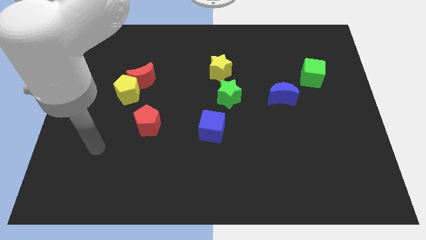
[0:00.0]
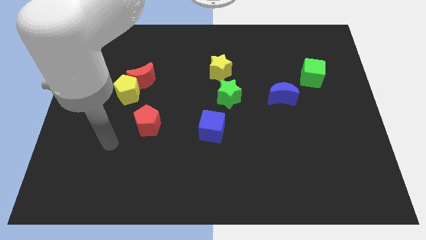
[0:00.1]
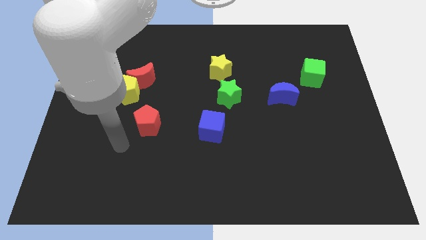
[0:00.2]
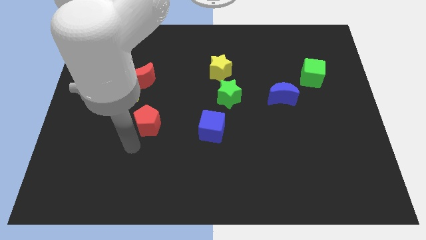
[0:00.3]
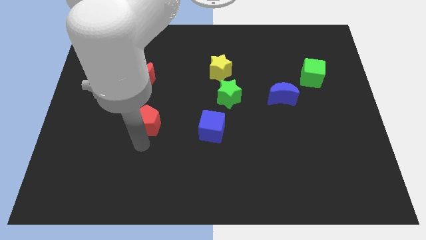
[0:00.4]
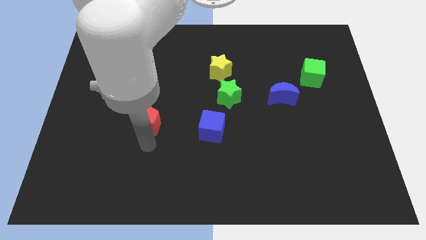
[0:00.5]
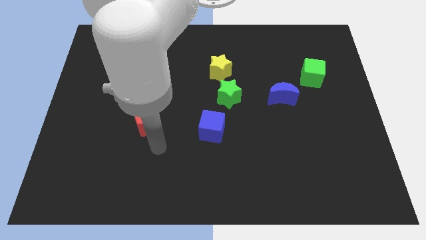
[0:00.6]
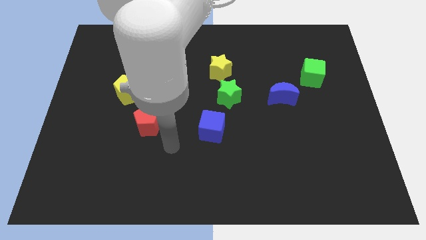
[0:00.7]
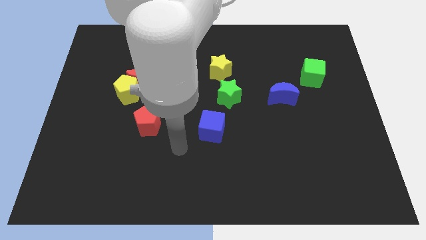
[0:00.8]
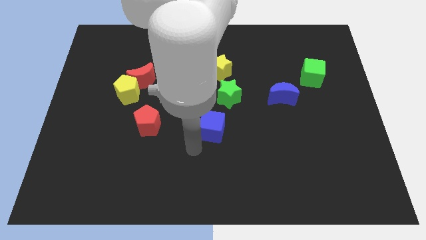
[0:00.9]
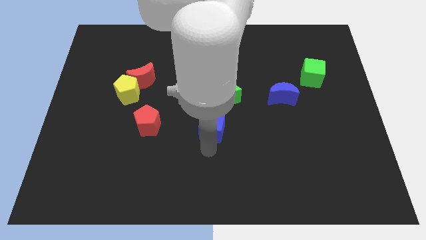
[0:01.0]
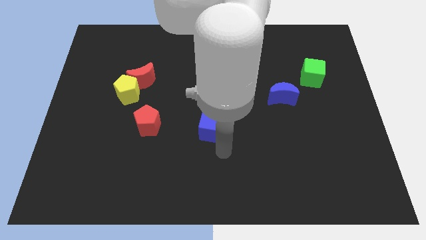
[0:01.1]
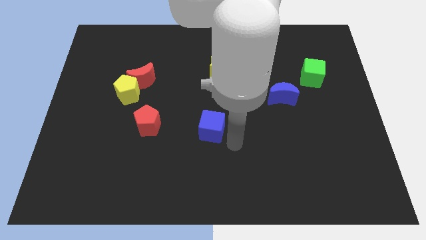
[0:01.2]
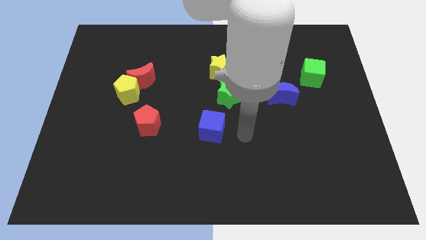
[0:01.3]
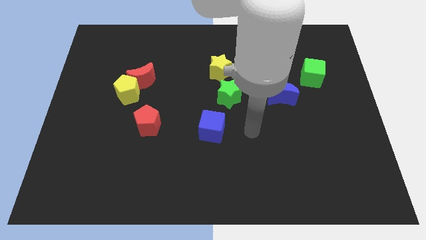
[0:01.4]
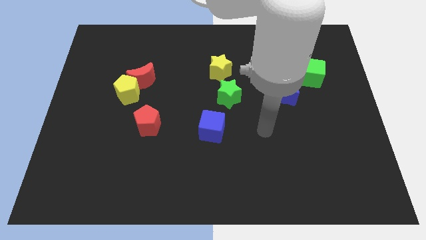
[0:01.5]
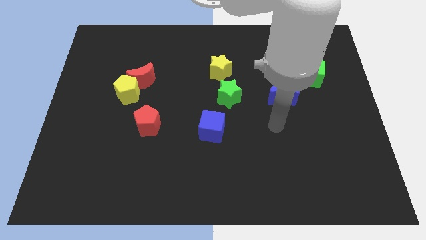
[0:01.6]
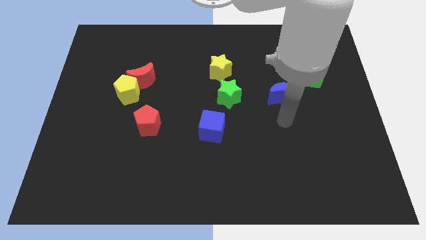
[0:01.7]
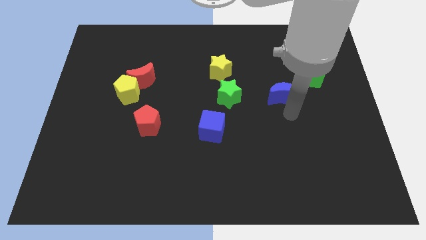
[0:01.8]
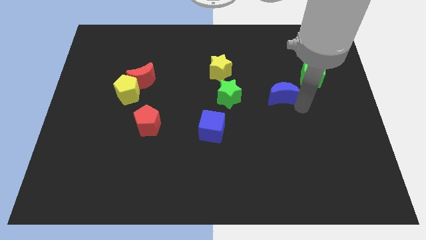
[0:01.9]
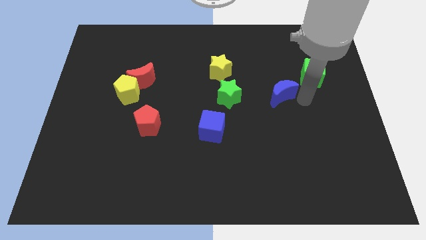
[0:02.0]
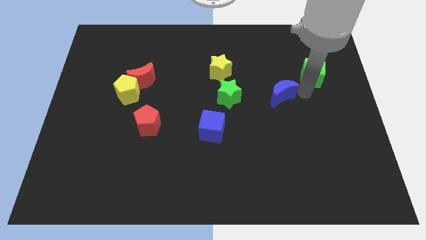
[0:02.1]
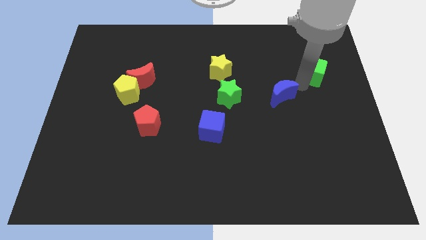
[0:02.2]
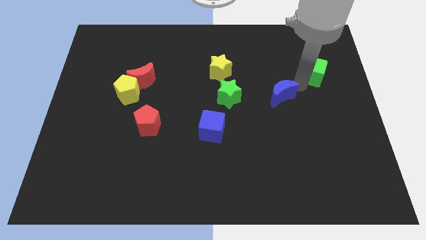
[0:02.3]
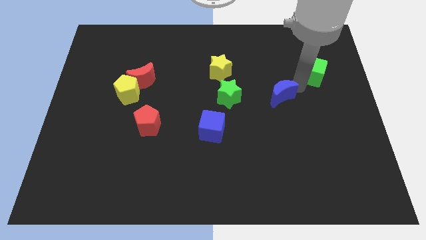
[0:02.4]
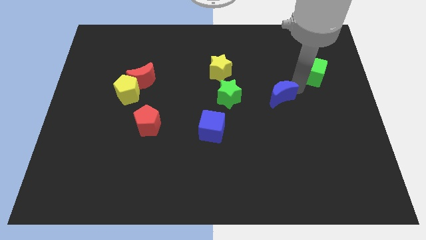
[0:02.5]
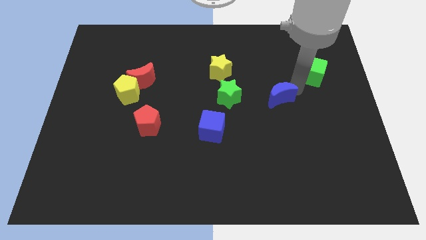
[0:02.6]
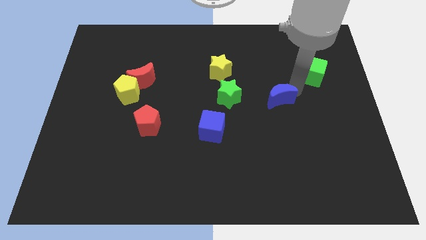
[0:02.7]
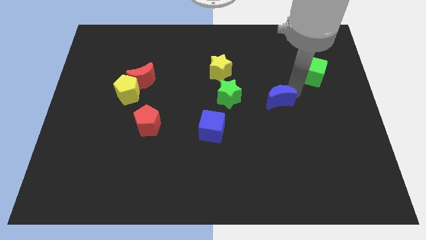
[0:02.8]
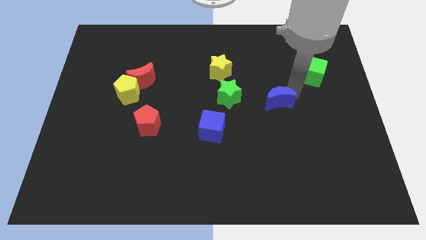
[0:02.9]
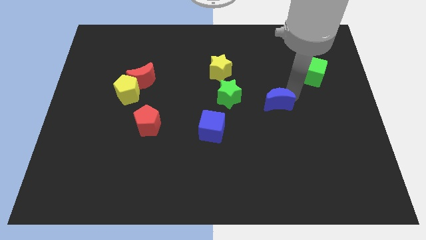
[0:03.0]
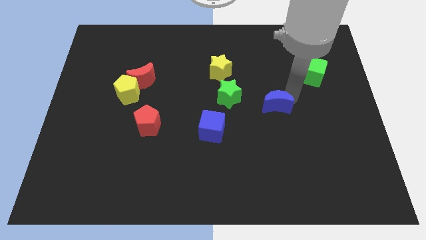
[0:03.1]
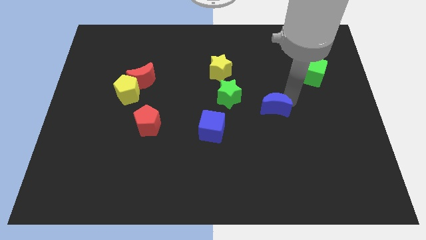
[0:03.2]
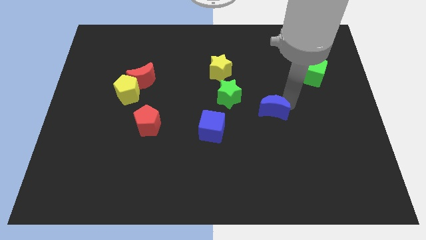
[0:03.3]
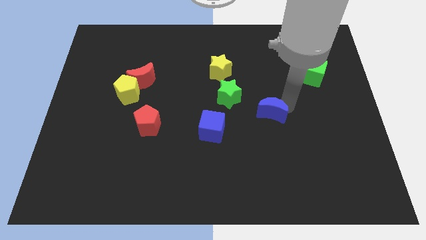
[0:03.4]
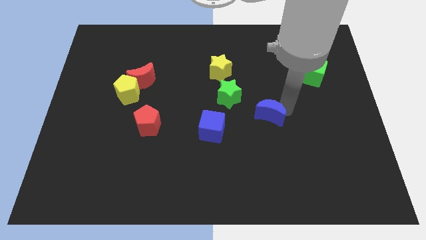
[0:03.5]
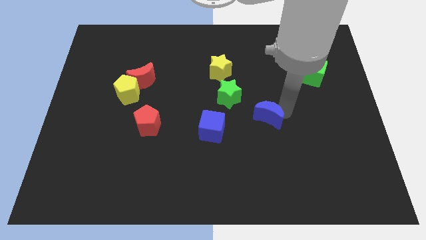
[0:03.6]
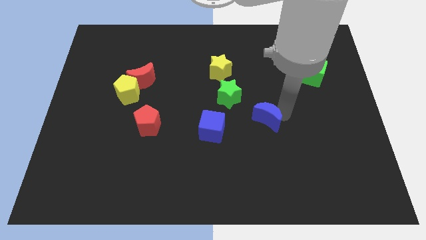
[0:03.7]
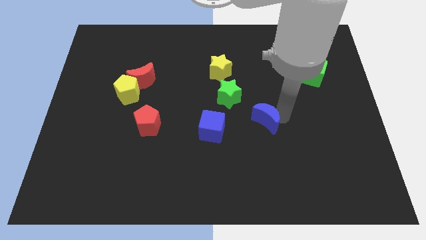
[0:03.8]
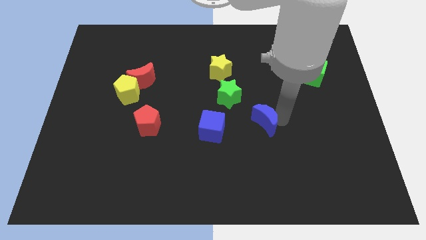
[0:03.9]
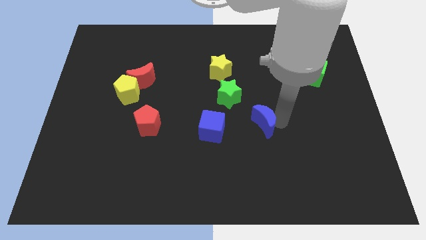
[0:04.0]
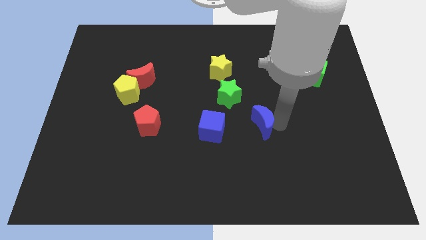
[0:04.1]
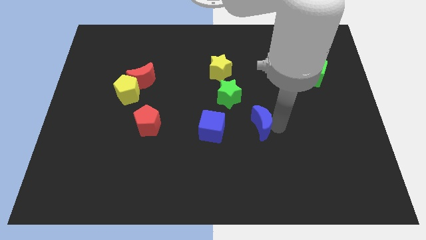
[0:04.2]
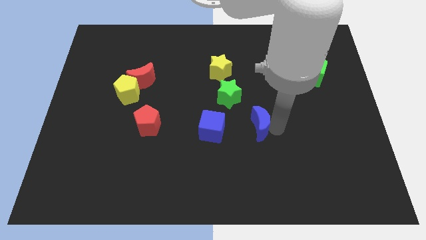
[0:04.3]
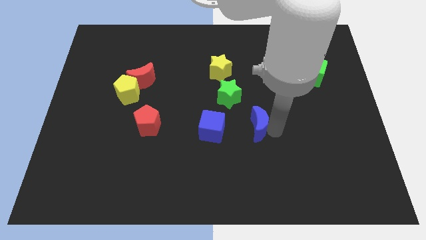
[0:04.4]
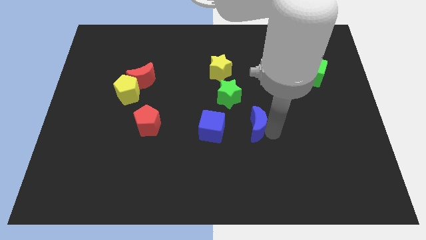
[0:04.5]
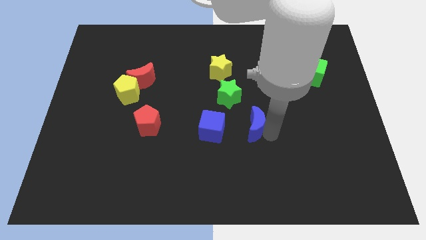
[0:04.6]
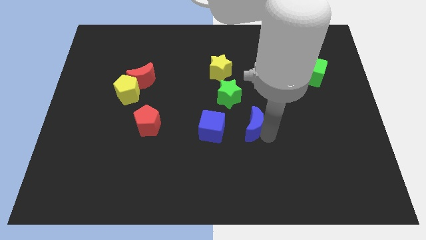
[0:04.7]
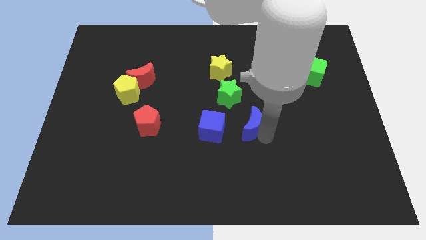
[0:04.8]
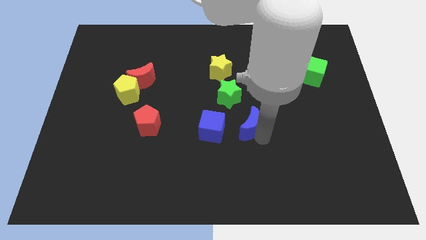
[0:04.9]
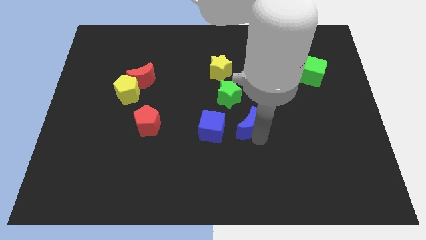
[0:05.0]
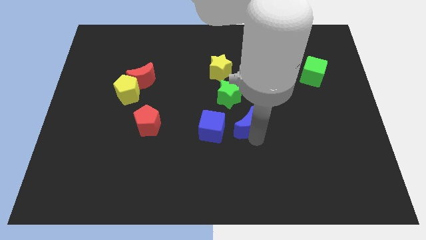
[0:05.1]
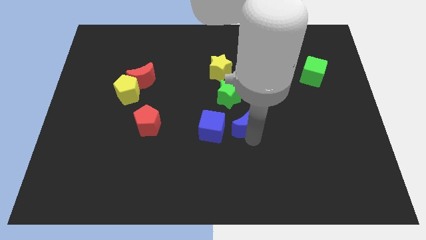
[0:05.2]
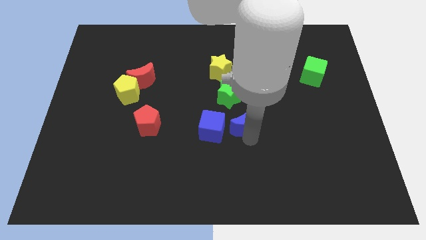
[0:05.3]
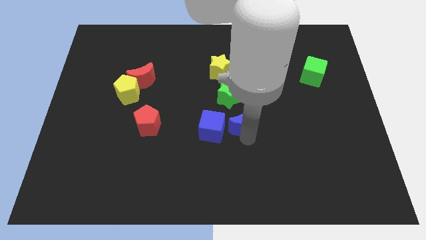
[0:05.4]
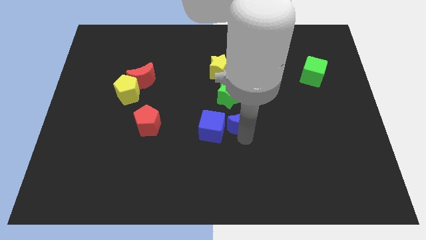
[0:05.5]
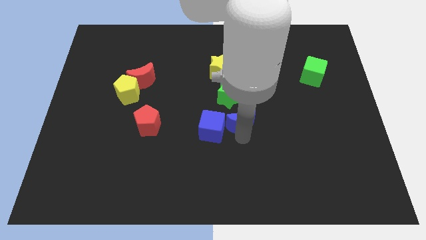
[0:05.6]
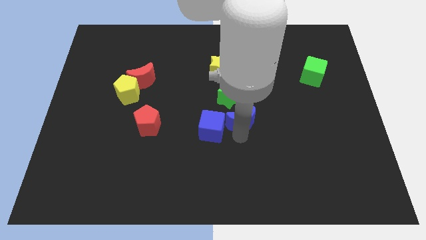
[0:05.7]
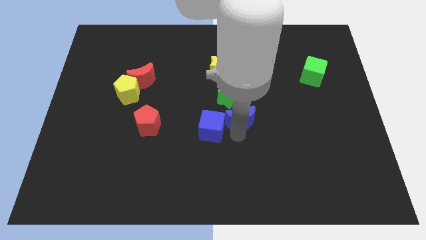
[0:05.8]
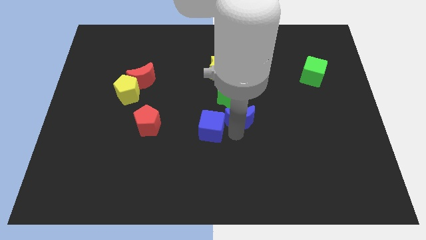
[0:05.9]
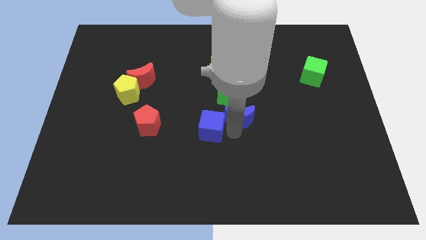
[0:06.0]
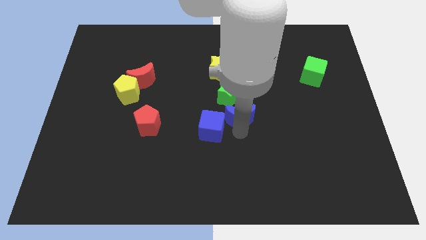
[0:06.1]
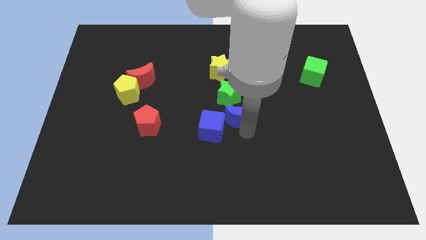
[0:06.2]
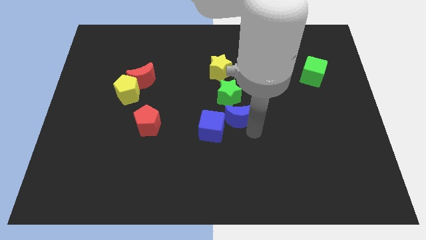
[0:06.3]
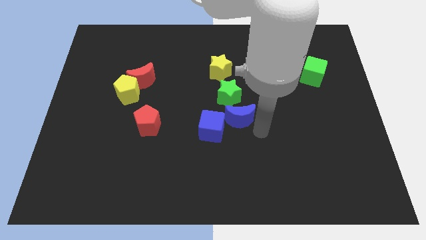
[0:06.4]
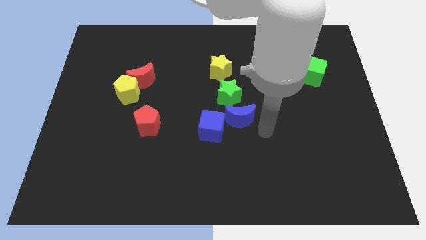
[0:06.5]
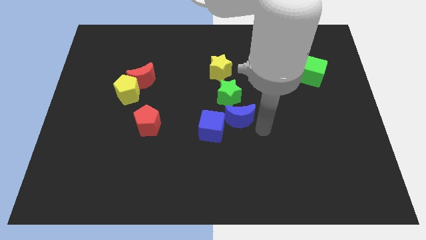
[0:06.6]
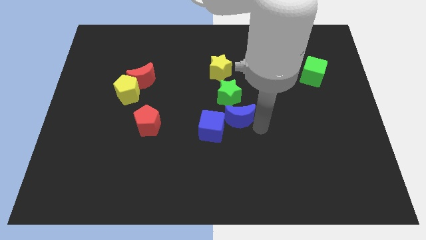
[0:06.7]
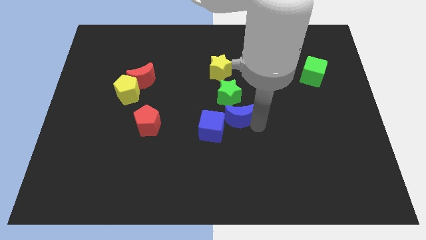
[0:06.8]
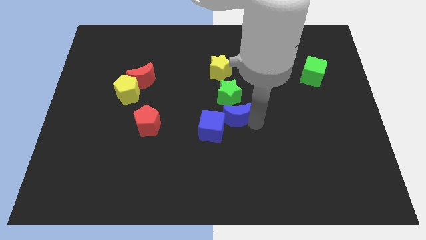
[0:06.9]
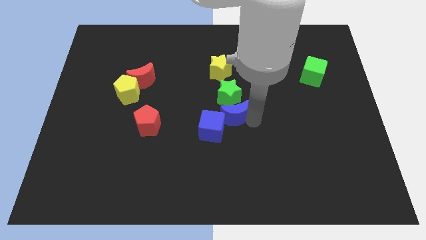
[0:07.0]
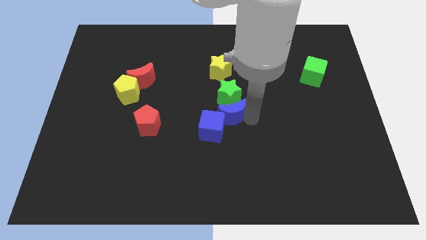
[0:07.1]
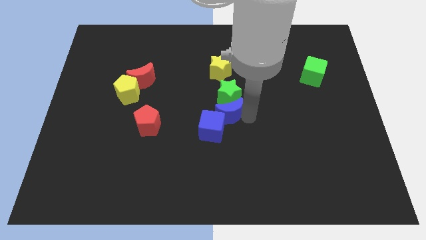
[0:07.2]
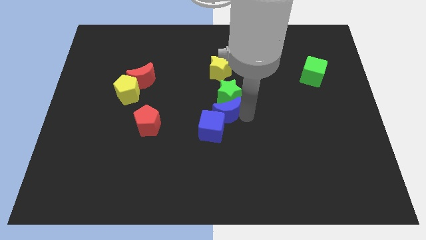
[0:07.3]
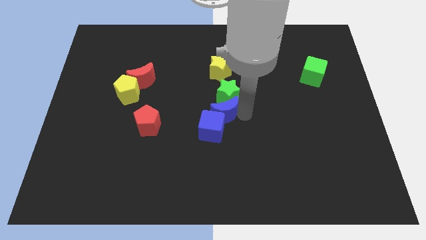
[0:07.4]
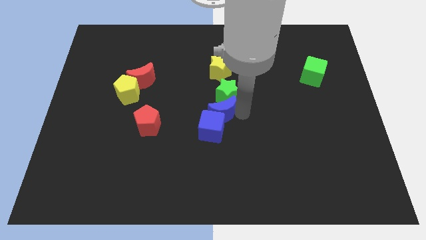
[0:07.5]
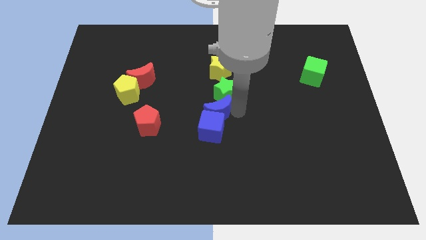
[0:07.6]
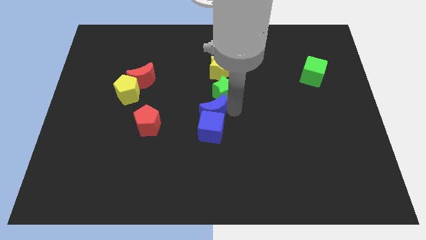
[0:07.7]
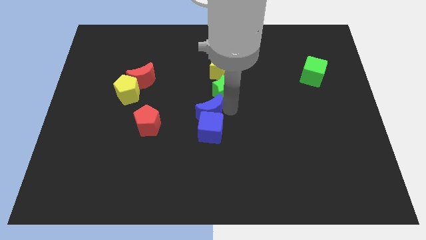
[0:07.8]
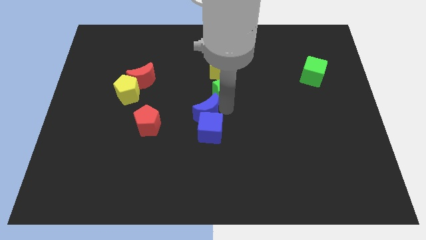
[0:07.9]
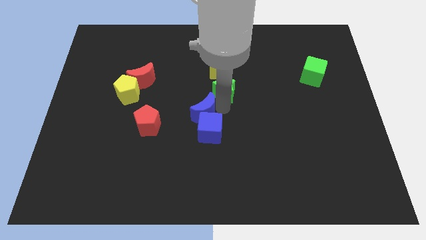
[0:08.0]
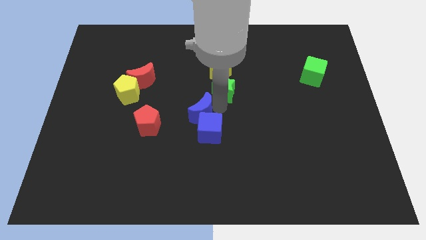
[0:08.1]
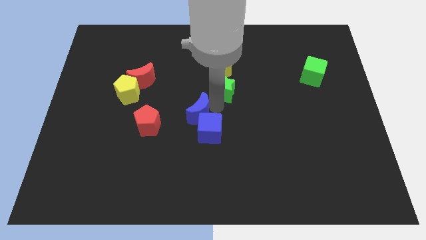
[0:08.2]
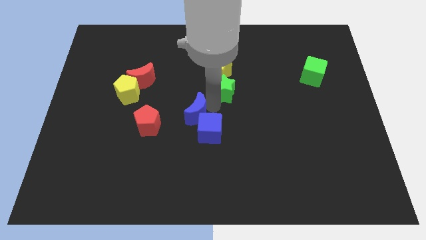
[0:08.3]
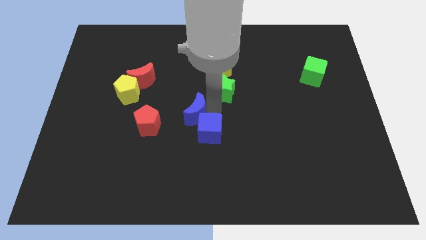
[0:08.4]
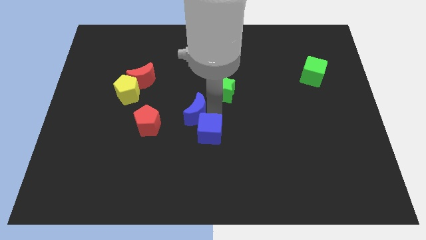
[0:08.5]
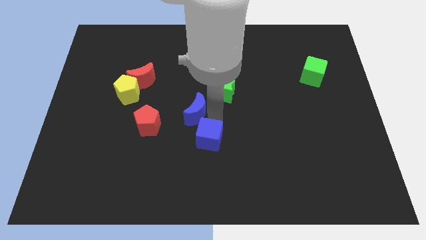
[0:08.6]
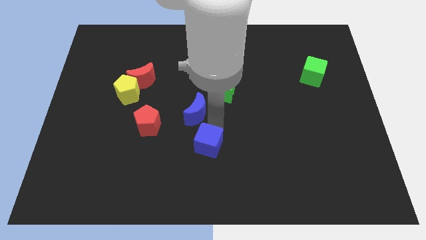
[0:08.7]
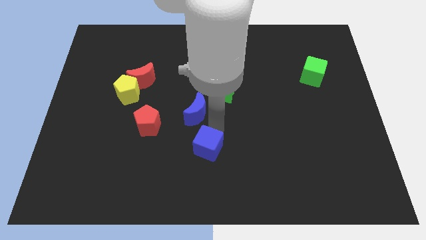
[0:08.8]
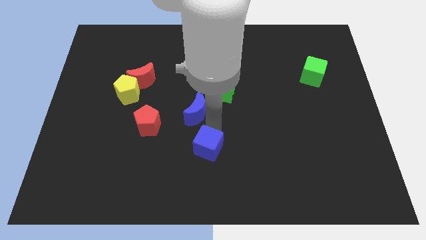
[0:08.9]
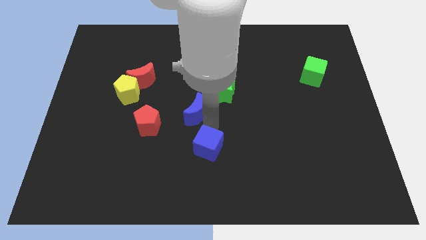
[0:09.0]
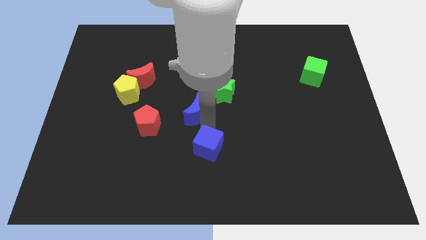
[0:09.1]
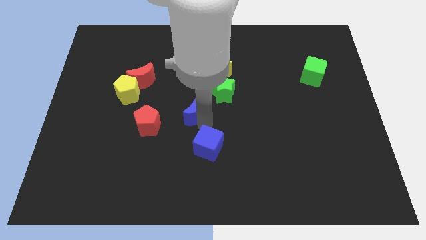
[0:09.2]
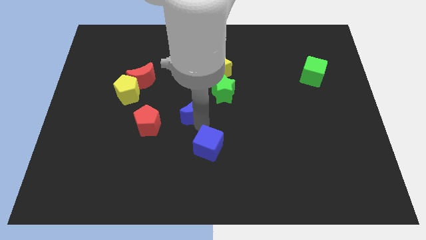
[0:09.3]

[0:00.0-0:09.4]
slide the blue moon left
